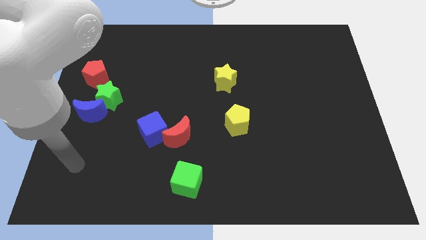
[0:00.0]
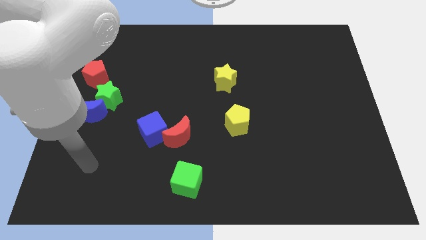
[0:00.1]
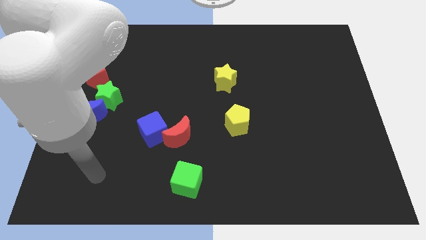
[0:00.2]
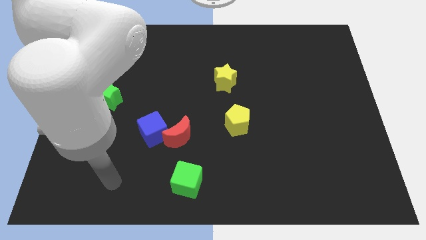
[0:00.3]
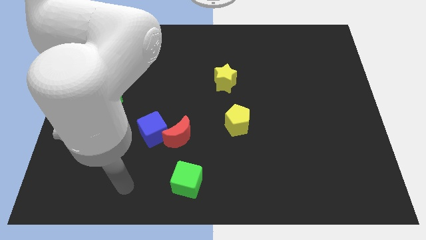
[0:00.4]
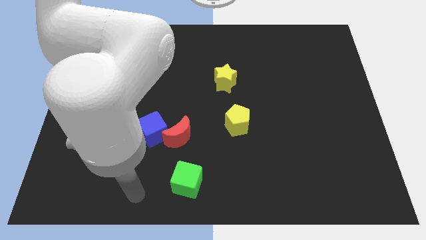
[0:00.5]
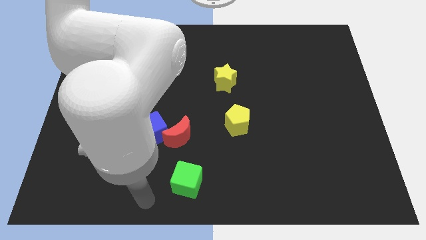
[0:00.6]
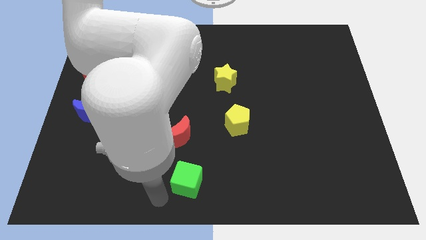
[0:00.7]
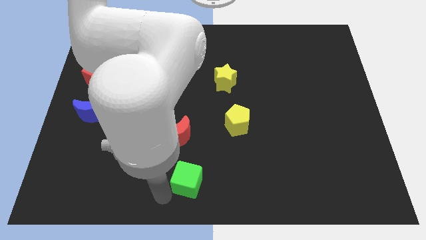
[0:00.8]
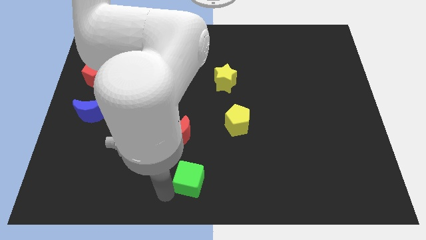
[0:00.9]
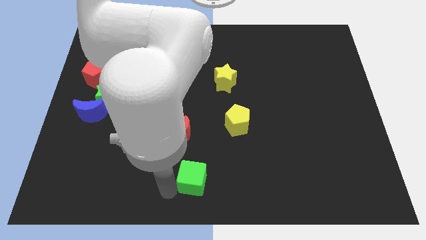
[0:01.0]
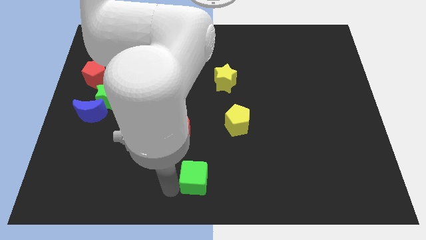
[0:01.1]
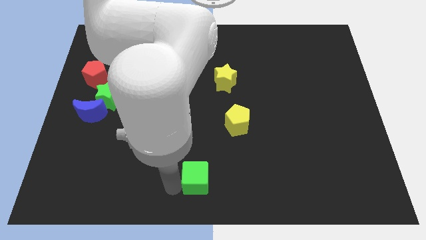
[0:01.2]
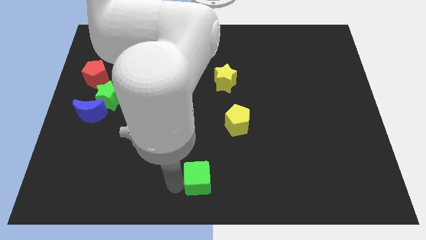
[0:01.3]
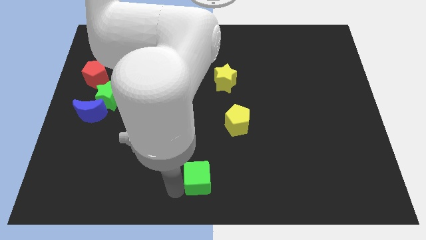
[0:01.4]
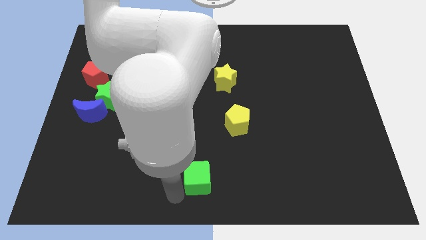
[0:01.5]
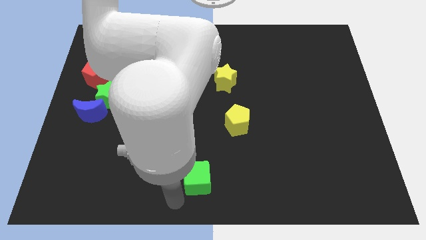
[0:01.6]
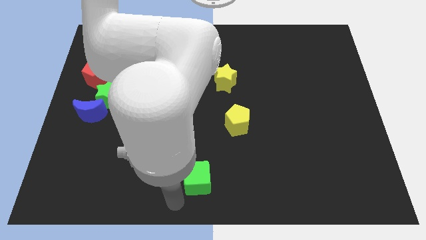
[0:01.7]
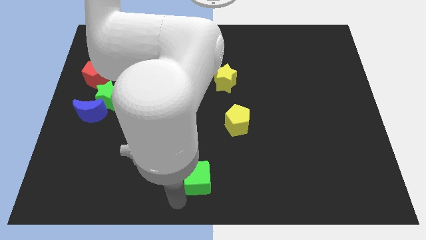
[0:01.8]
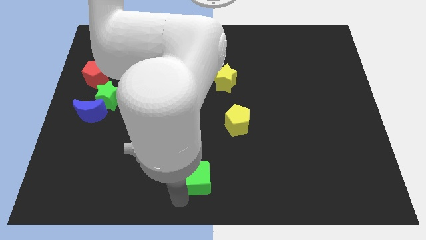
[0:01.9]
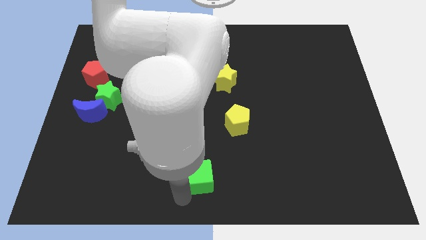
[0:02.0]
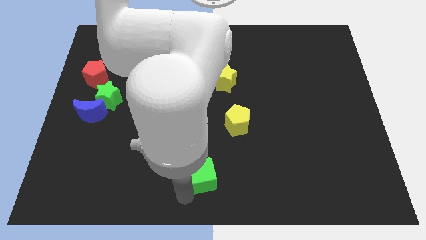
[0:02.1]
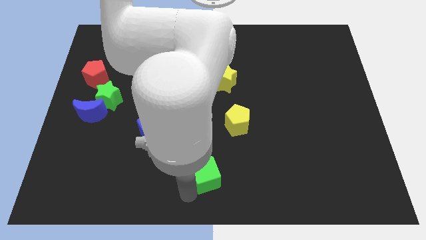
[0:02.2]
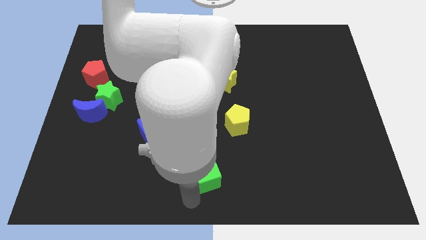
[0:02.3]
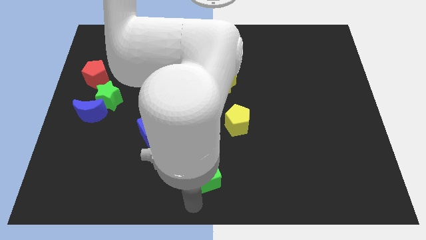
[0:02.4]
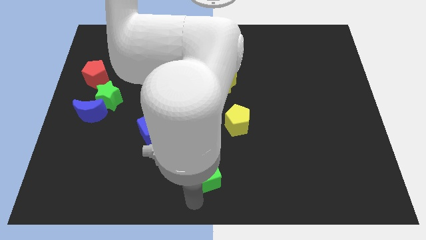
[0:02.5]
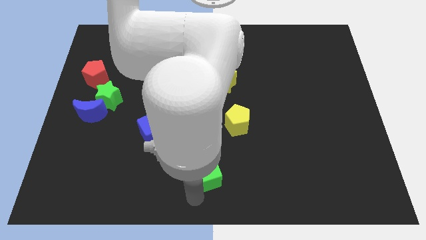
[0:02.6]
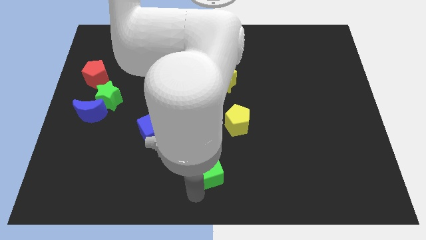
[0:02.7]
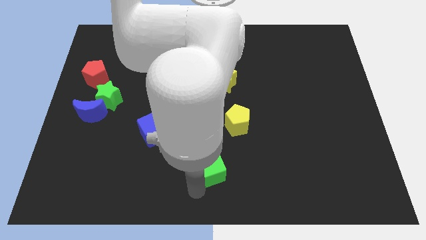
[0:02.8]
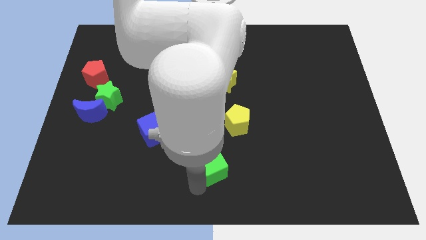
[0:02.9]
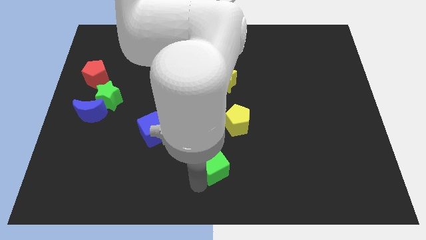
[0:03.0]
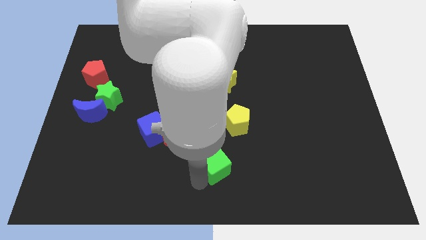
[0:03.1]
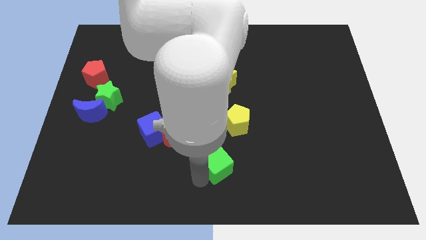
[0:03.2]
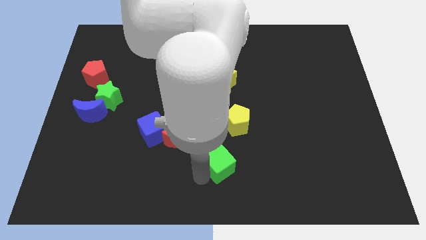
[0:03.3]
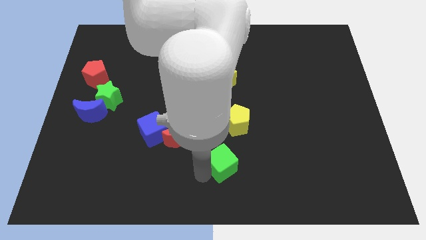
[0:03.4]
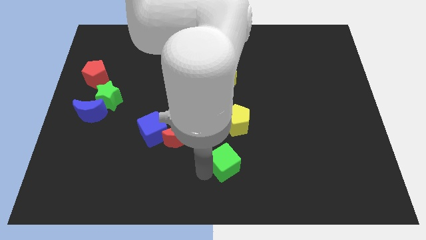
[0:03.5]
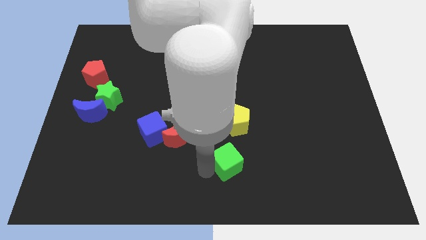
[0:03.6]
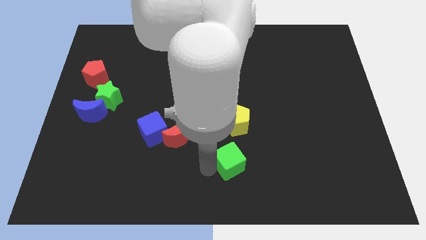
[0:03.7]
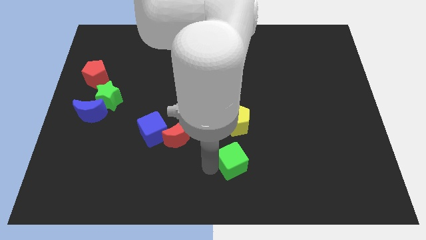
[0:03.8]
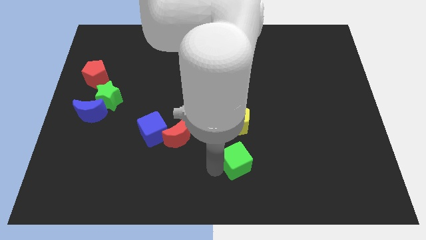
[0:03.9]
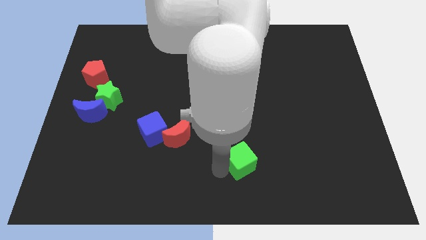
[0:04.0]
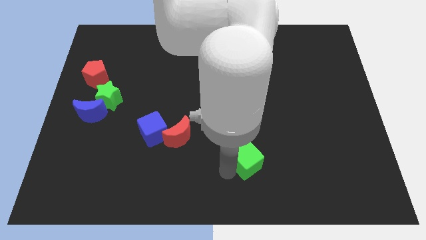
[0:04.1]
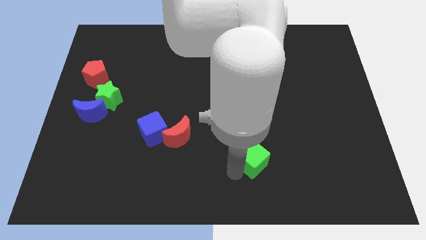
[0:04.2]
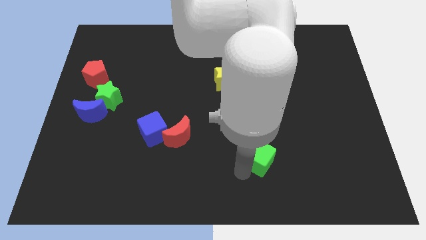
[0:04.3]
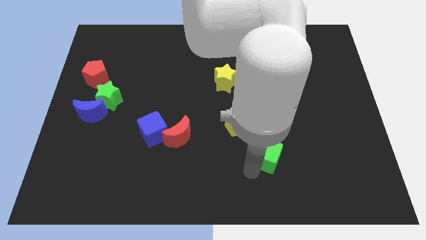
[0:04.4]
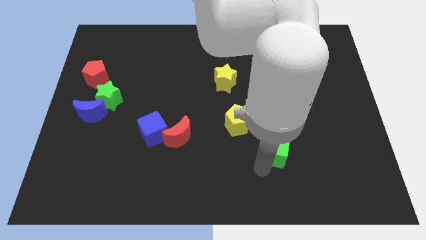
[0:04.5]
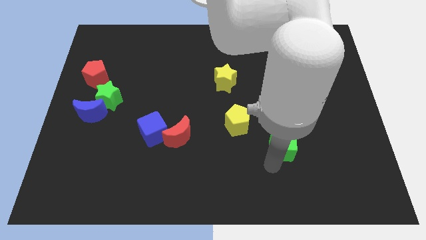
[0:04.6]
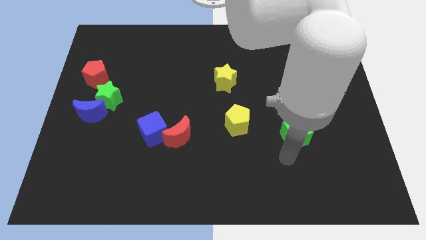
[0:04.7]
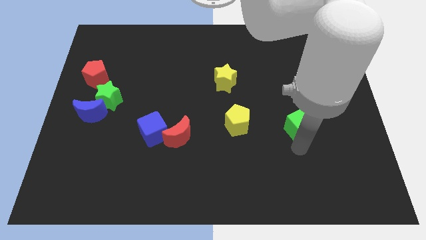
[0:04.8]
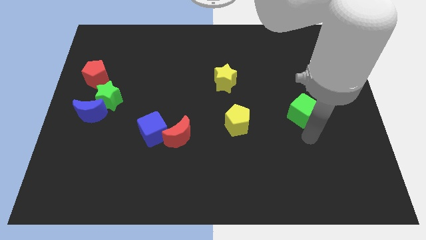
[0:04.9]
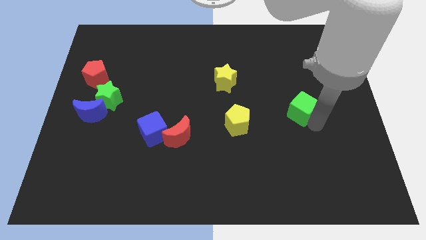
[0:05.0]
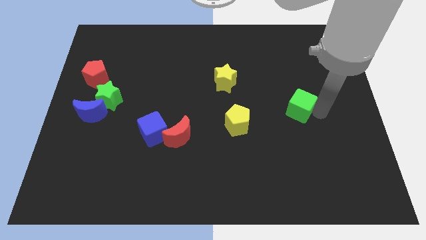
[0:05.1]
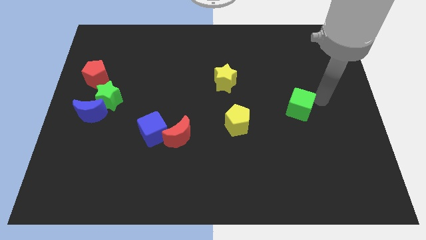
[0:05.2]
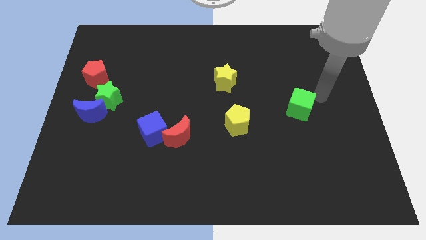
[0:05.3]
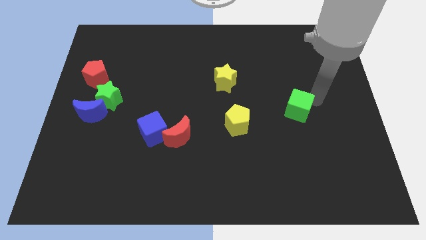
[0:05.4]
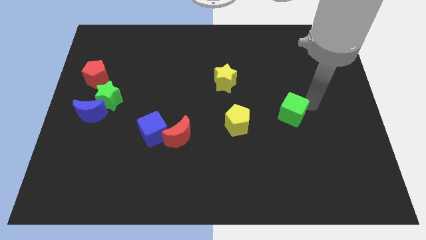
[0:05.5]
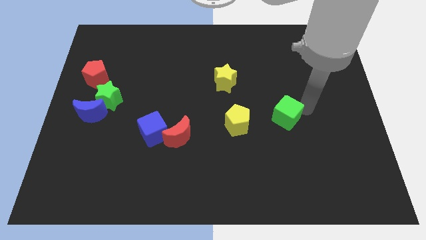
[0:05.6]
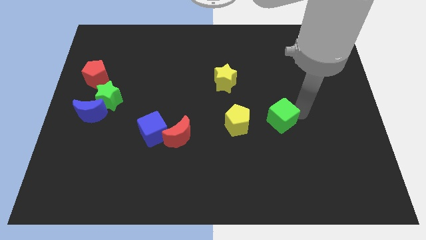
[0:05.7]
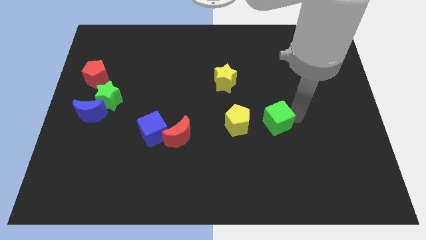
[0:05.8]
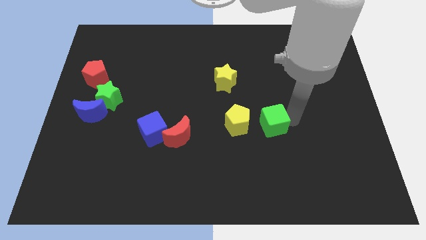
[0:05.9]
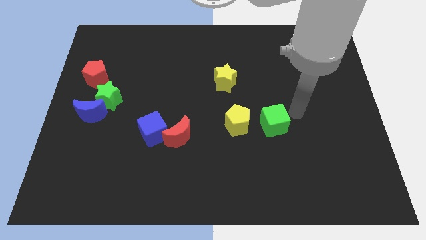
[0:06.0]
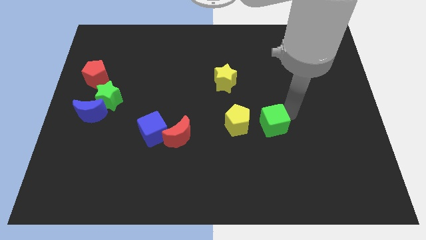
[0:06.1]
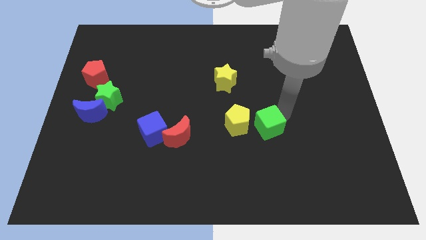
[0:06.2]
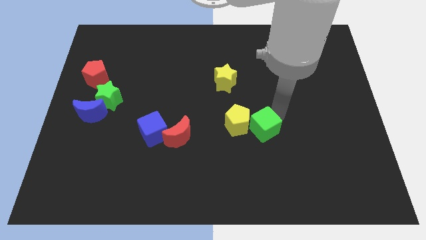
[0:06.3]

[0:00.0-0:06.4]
slide the green cube to the yellow pentagon
